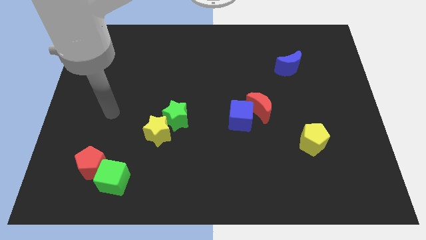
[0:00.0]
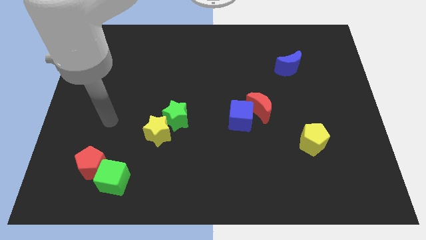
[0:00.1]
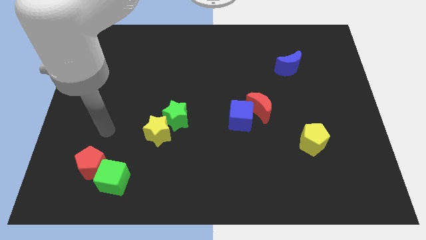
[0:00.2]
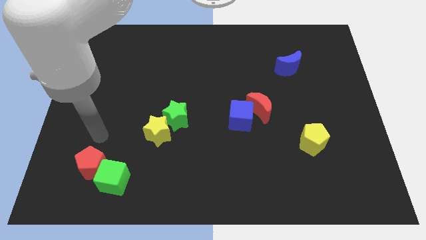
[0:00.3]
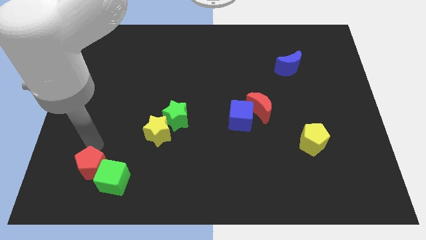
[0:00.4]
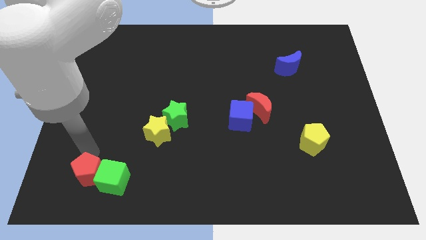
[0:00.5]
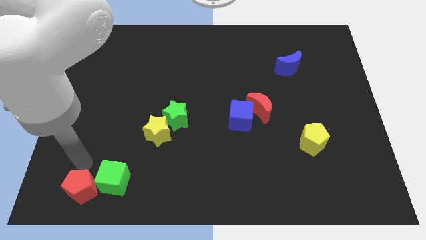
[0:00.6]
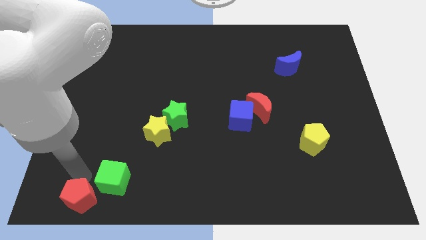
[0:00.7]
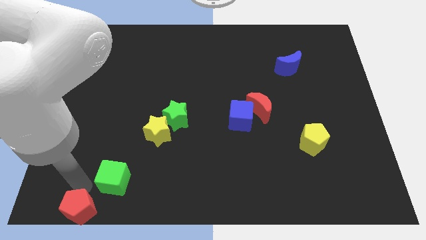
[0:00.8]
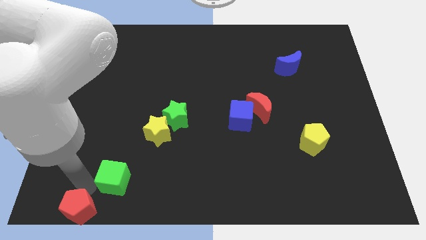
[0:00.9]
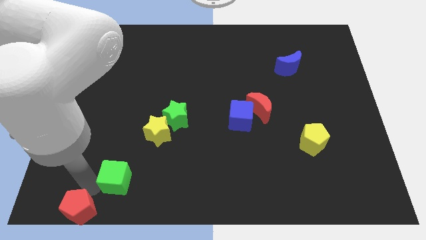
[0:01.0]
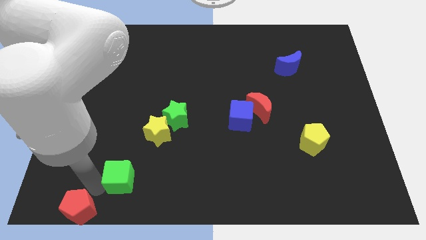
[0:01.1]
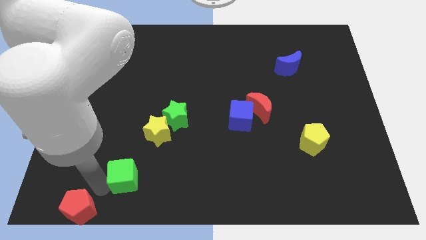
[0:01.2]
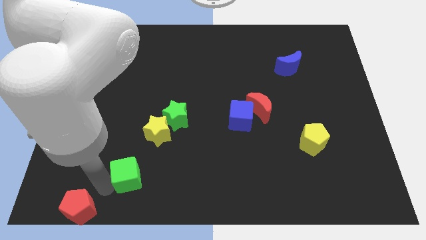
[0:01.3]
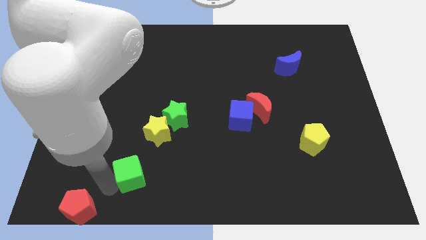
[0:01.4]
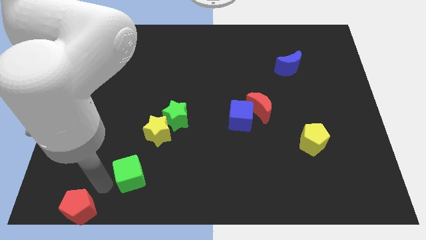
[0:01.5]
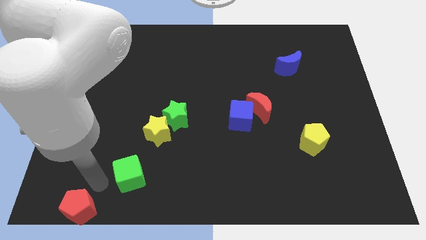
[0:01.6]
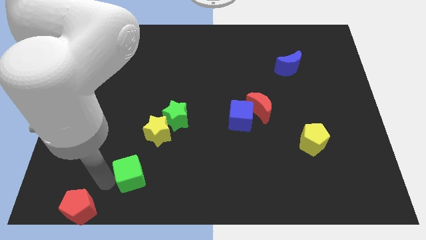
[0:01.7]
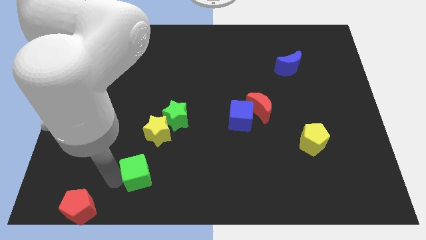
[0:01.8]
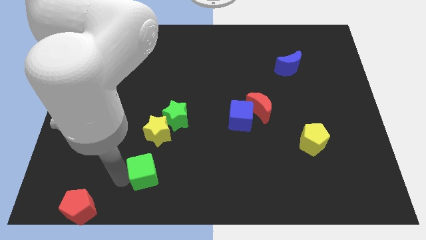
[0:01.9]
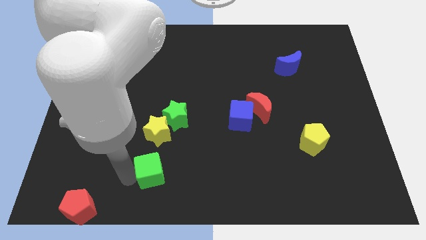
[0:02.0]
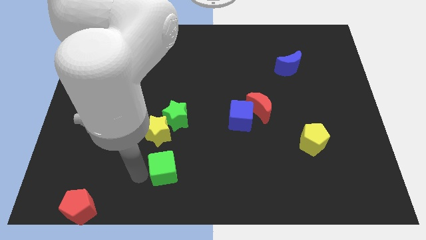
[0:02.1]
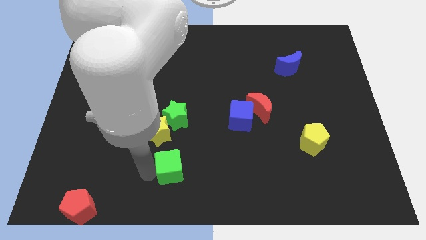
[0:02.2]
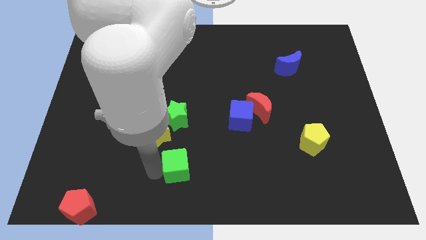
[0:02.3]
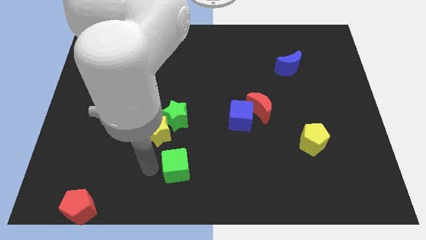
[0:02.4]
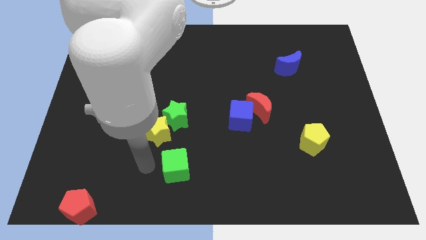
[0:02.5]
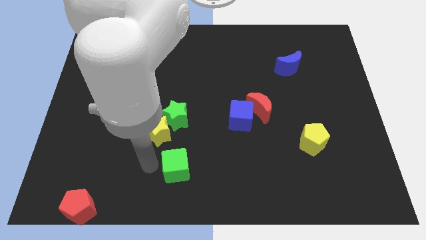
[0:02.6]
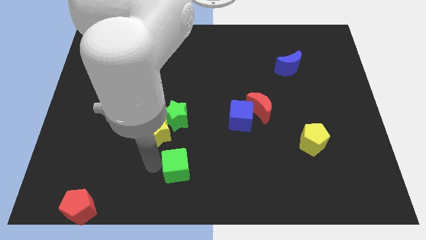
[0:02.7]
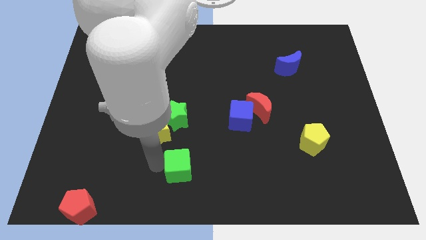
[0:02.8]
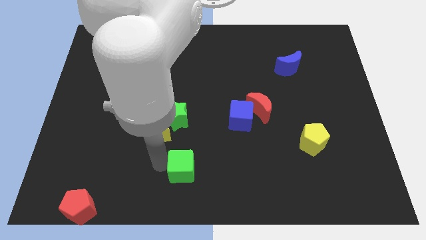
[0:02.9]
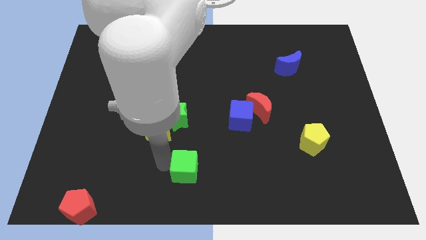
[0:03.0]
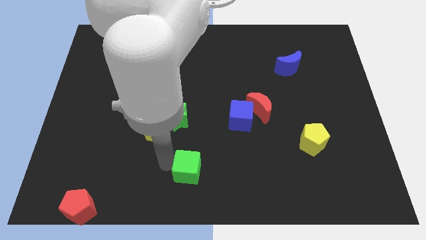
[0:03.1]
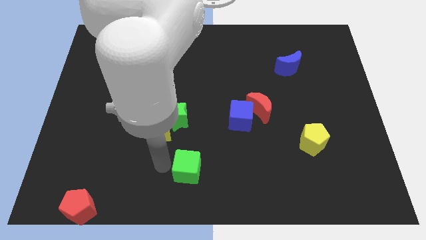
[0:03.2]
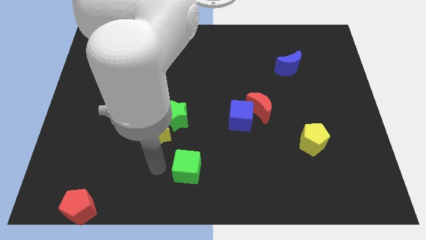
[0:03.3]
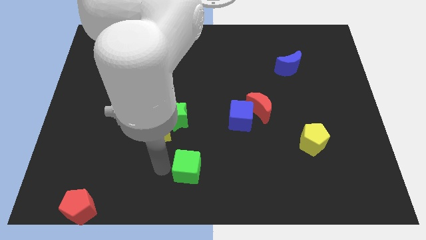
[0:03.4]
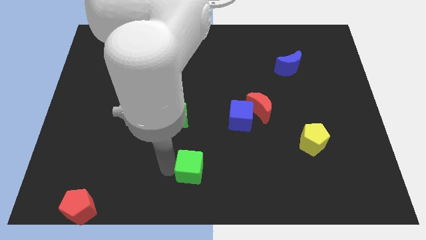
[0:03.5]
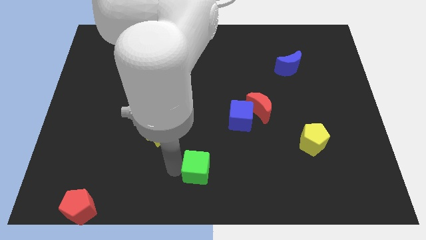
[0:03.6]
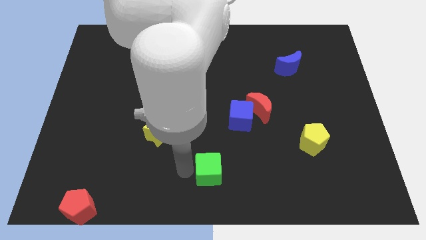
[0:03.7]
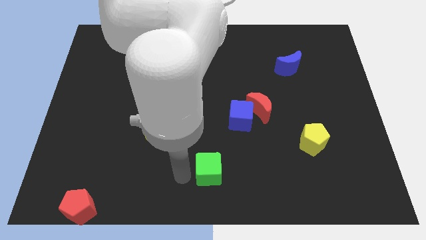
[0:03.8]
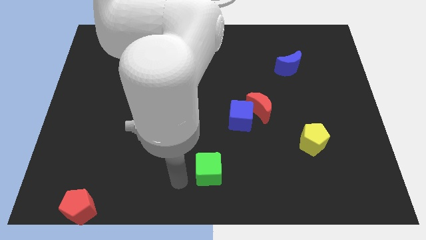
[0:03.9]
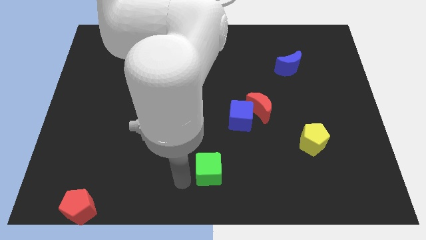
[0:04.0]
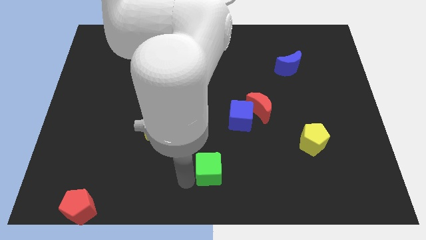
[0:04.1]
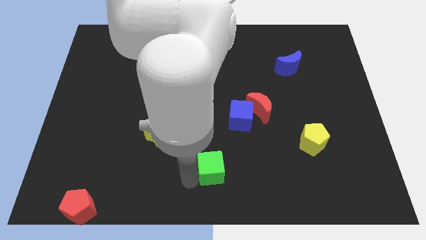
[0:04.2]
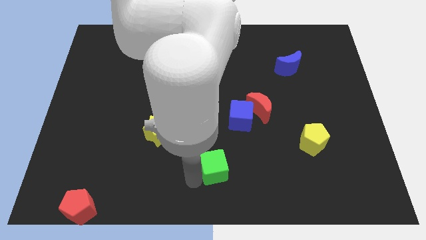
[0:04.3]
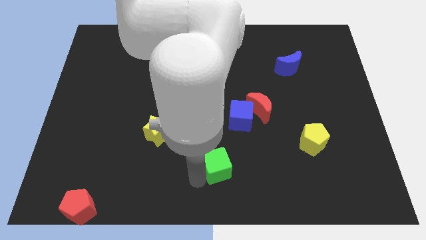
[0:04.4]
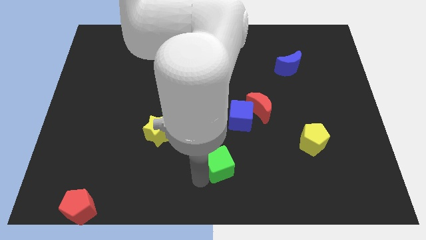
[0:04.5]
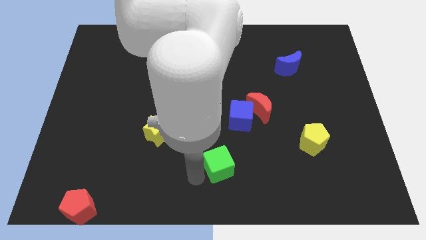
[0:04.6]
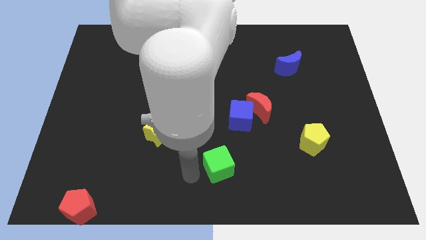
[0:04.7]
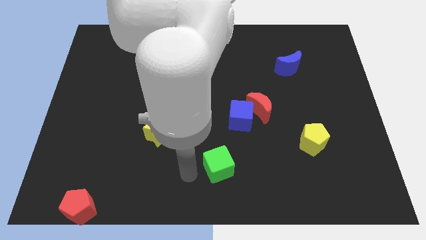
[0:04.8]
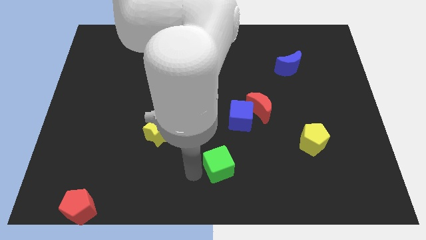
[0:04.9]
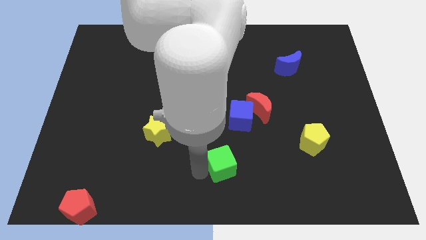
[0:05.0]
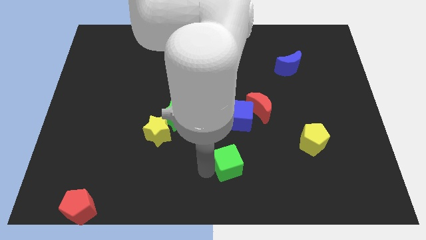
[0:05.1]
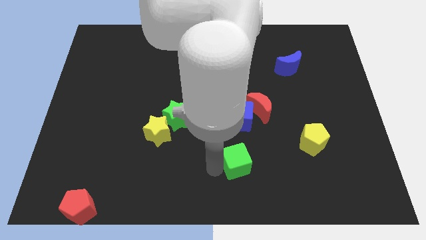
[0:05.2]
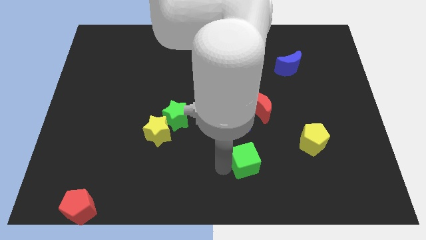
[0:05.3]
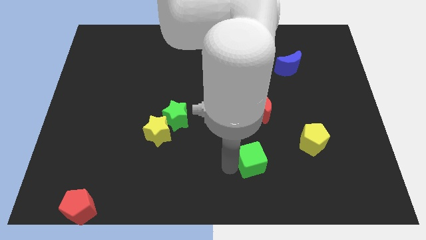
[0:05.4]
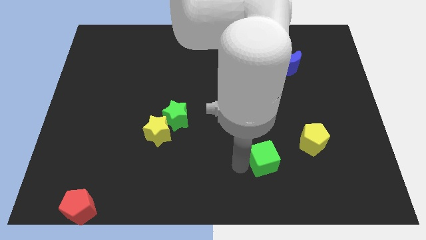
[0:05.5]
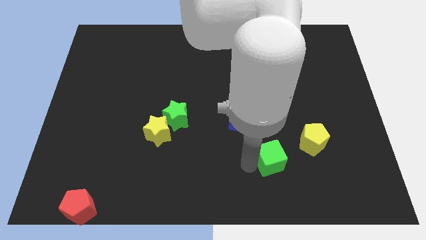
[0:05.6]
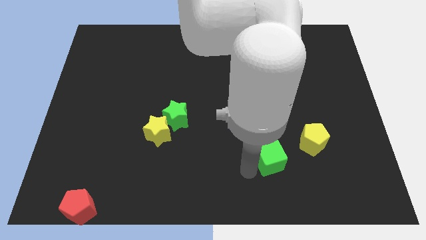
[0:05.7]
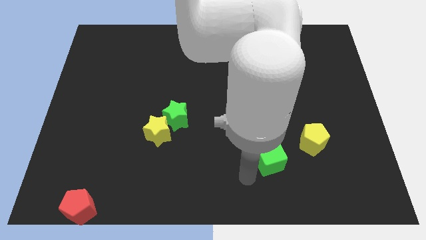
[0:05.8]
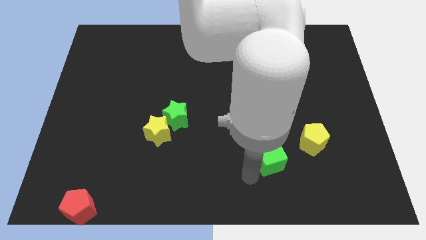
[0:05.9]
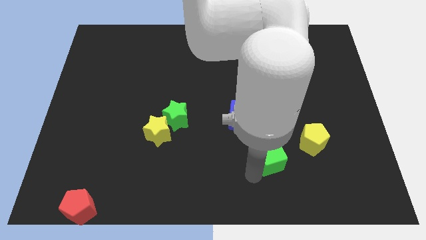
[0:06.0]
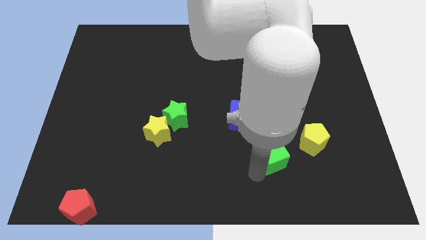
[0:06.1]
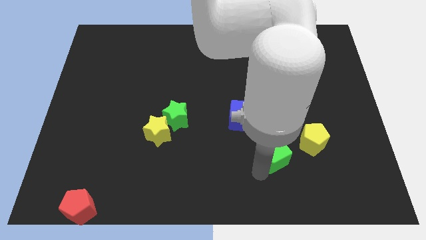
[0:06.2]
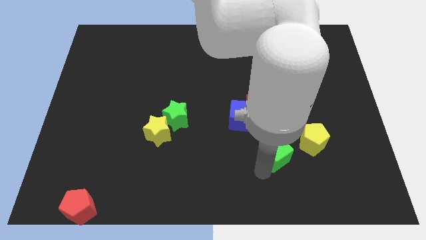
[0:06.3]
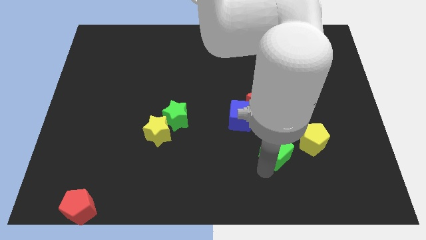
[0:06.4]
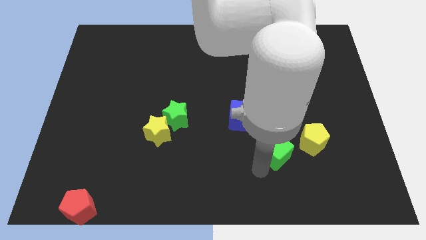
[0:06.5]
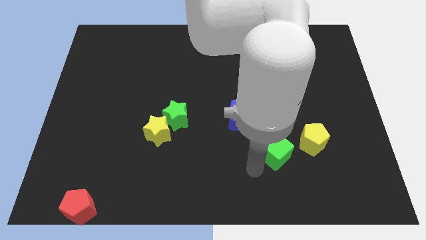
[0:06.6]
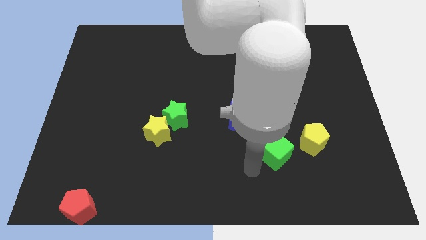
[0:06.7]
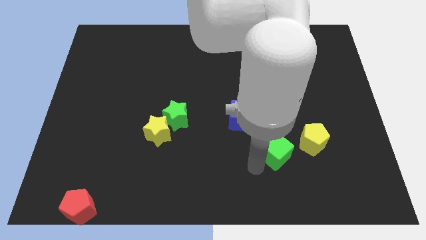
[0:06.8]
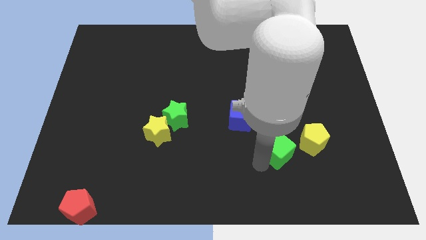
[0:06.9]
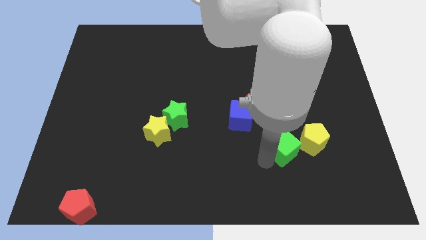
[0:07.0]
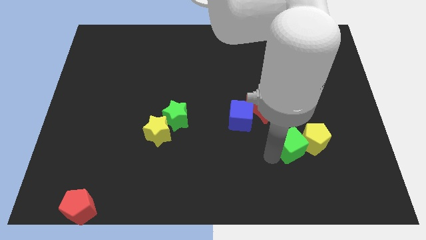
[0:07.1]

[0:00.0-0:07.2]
put the green cube next to the yellow pentagon
